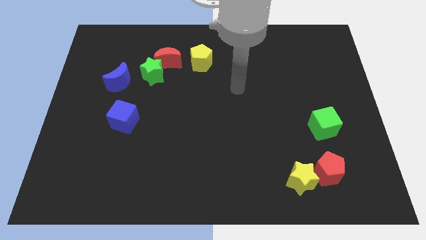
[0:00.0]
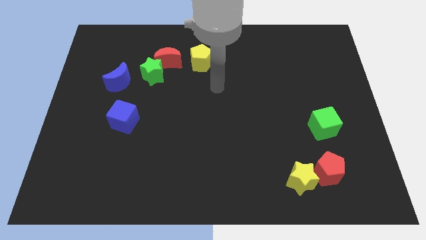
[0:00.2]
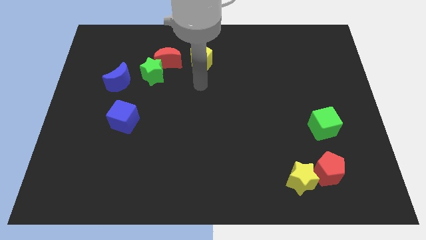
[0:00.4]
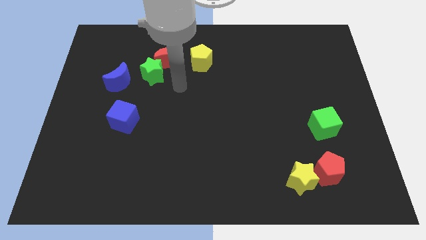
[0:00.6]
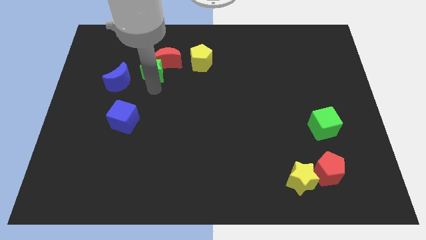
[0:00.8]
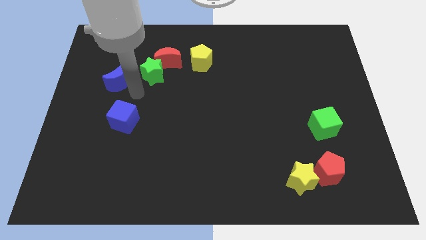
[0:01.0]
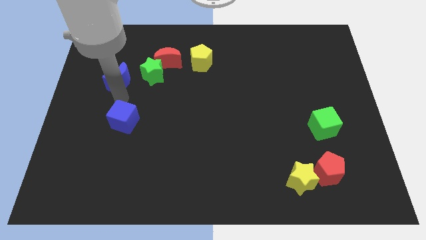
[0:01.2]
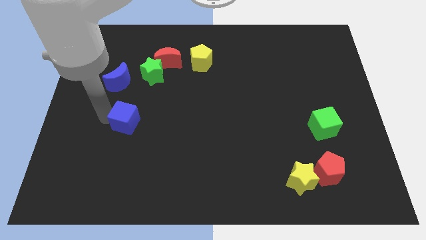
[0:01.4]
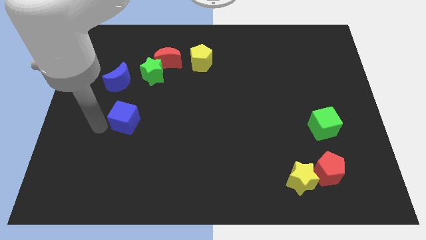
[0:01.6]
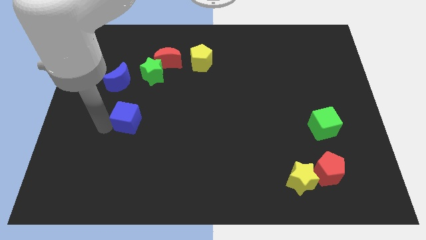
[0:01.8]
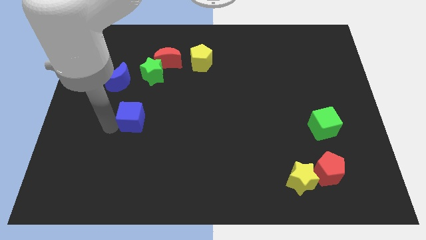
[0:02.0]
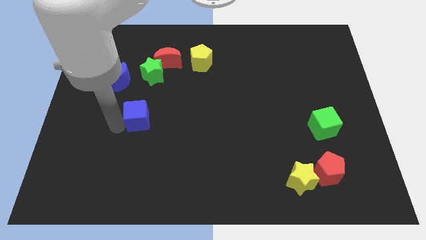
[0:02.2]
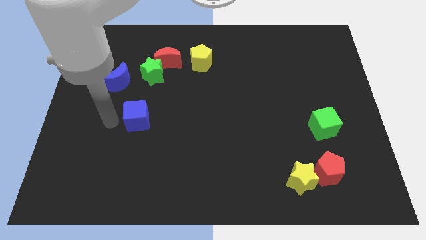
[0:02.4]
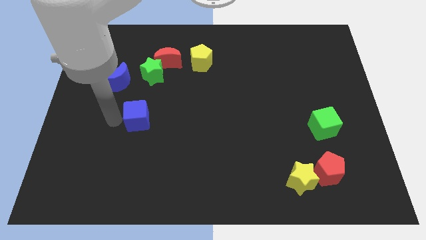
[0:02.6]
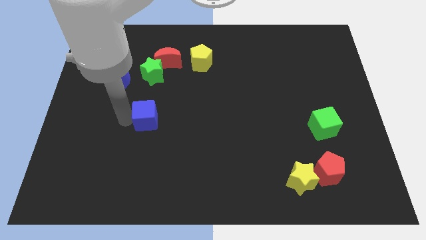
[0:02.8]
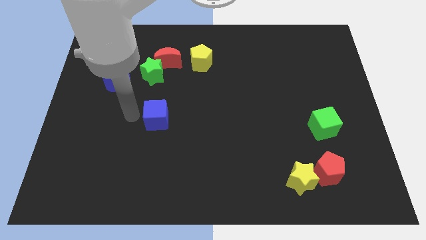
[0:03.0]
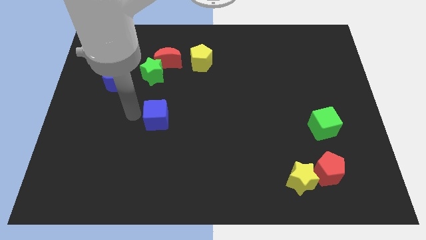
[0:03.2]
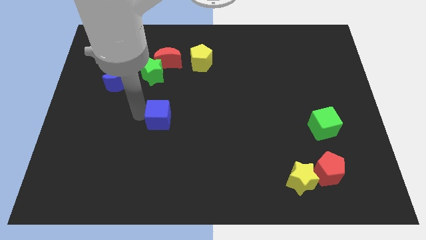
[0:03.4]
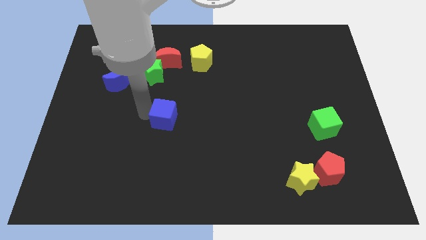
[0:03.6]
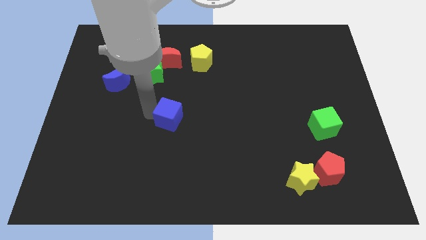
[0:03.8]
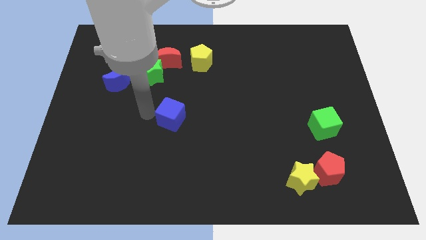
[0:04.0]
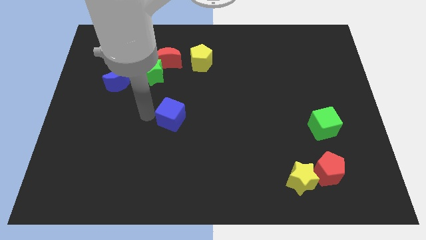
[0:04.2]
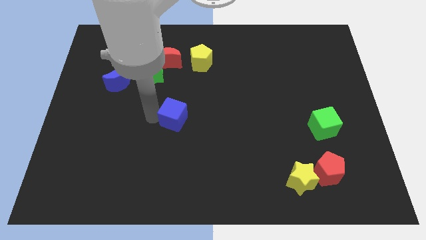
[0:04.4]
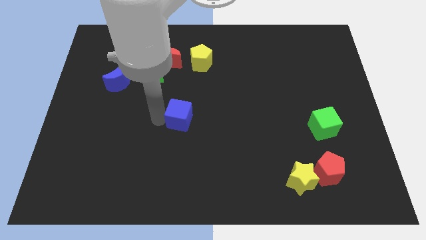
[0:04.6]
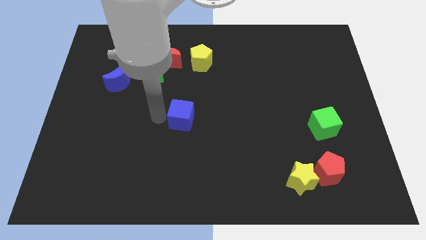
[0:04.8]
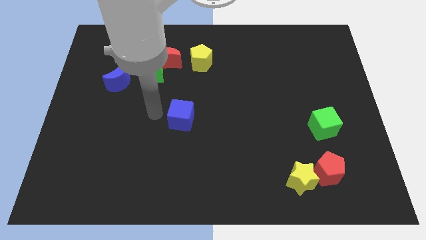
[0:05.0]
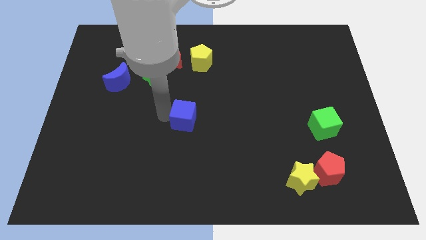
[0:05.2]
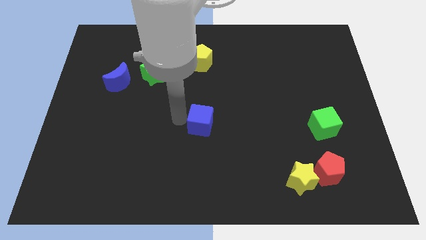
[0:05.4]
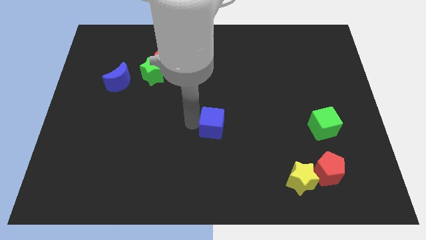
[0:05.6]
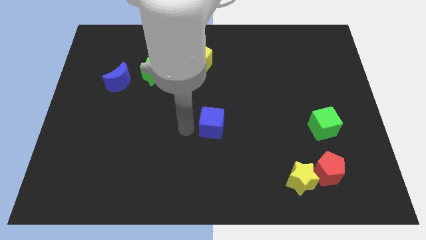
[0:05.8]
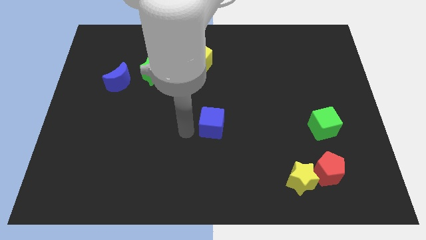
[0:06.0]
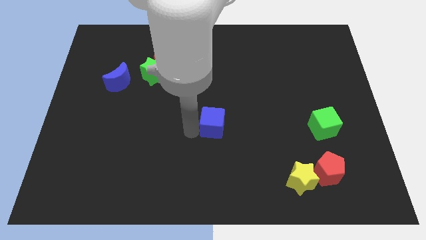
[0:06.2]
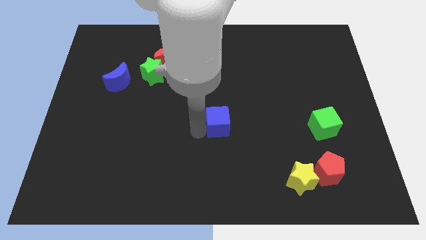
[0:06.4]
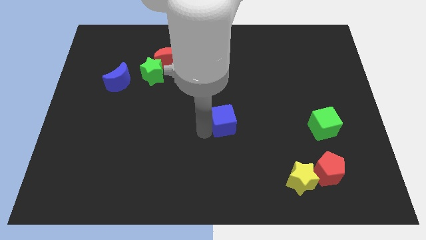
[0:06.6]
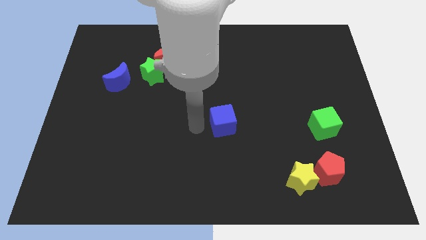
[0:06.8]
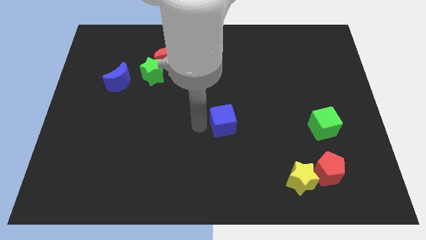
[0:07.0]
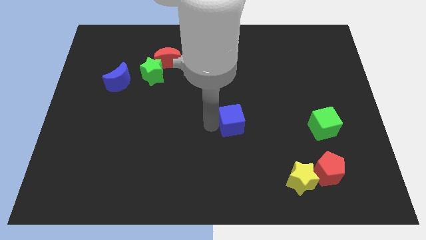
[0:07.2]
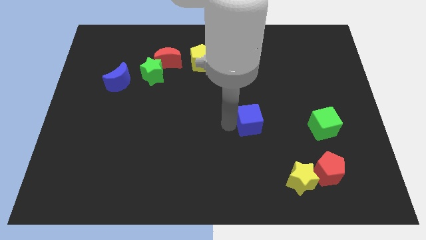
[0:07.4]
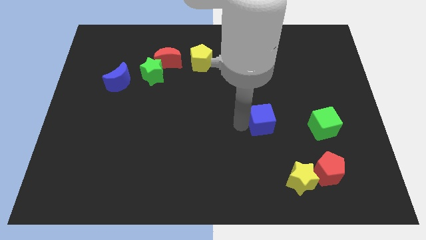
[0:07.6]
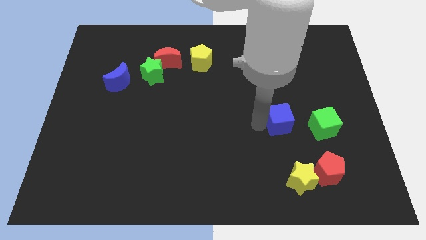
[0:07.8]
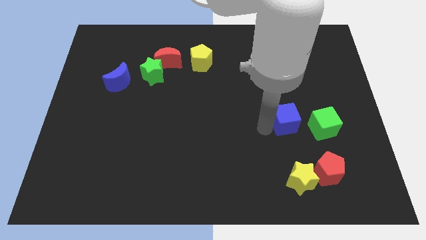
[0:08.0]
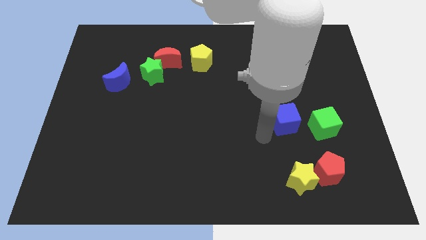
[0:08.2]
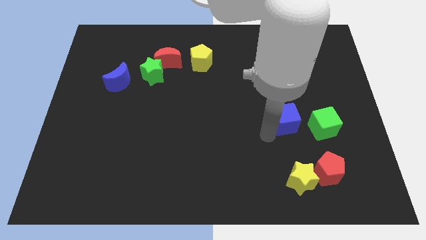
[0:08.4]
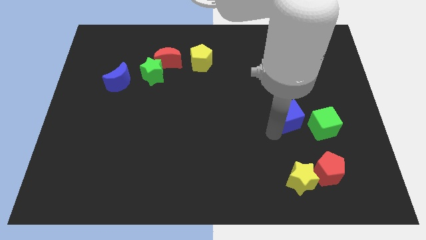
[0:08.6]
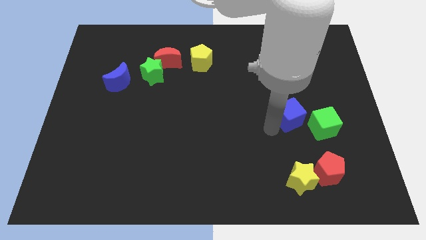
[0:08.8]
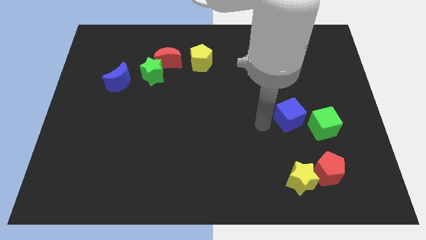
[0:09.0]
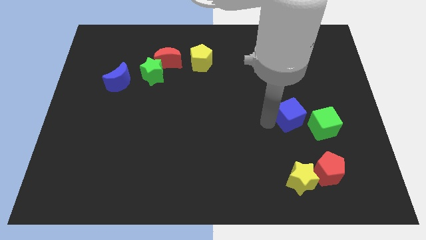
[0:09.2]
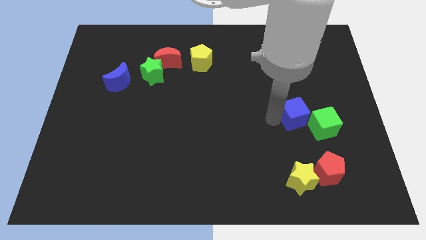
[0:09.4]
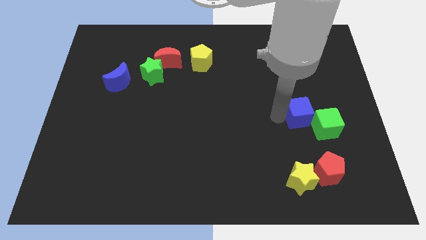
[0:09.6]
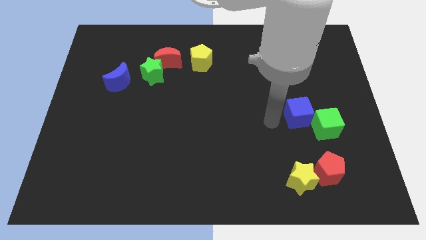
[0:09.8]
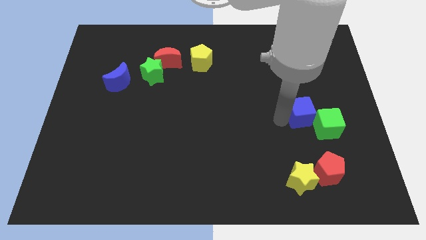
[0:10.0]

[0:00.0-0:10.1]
slide the blue cube to the top of the red pentagon

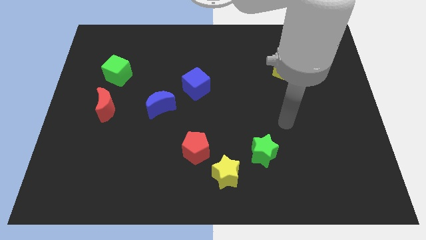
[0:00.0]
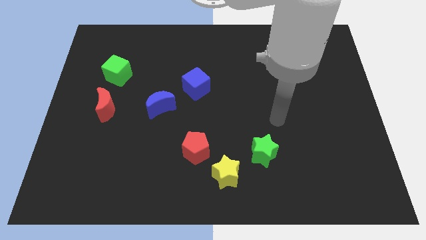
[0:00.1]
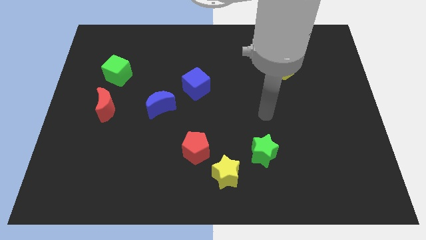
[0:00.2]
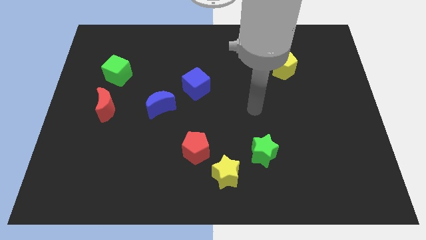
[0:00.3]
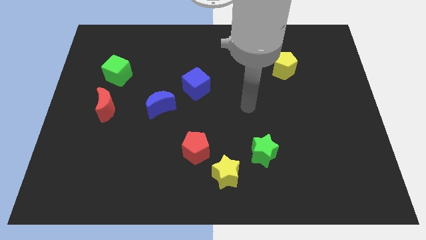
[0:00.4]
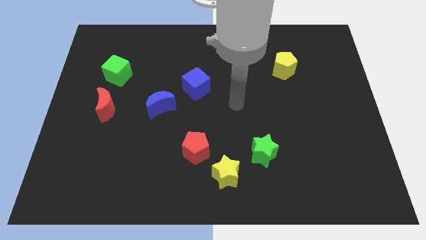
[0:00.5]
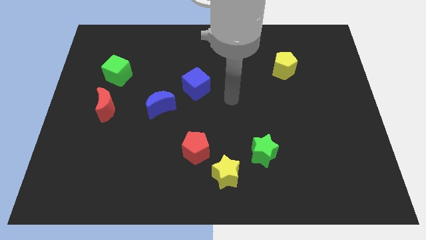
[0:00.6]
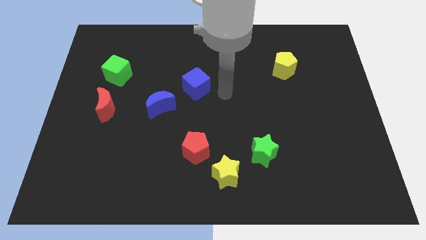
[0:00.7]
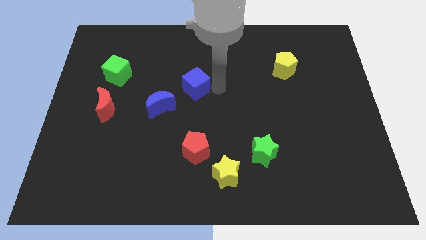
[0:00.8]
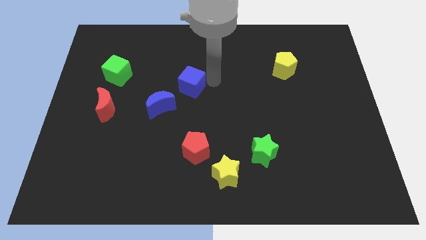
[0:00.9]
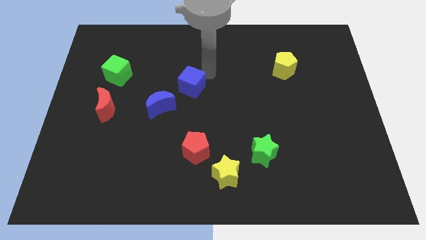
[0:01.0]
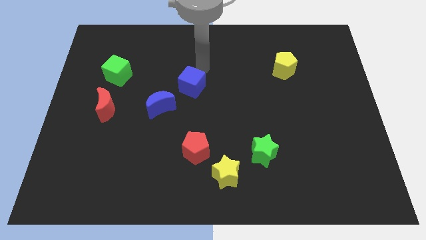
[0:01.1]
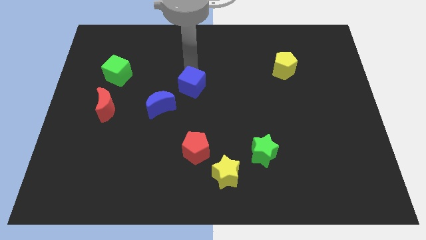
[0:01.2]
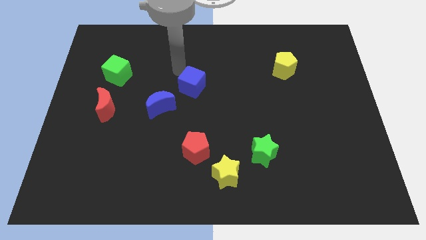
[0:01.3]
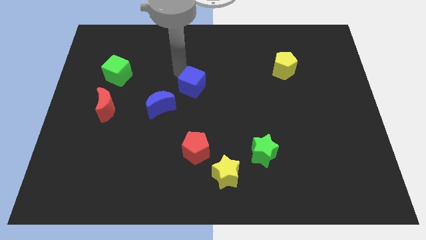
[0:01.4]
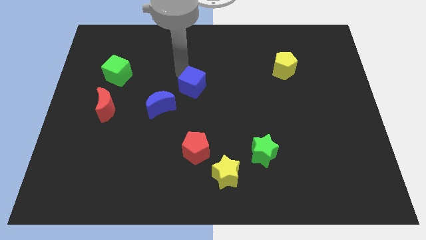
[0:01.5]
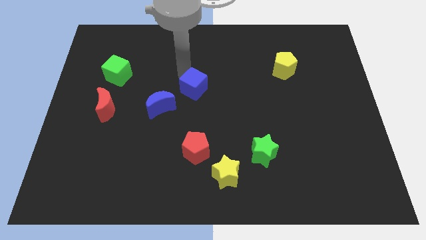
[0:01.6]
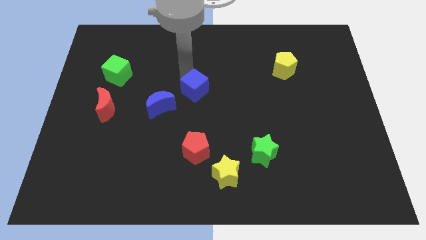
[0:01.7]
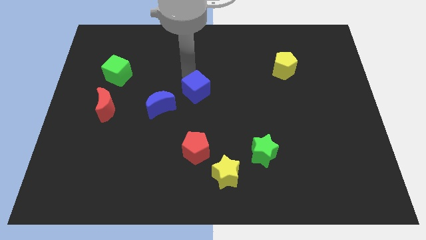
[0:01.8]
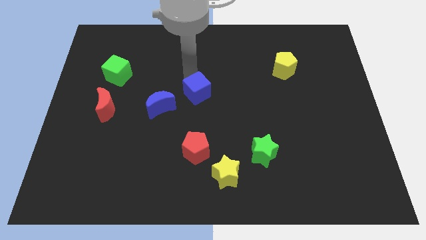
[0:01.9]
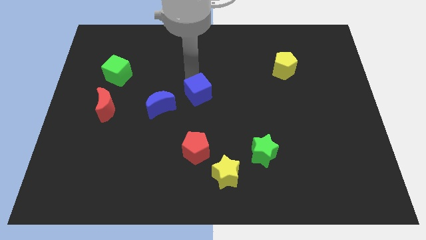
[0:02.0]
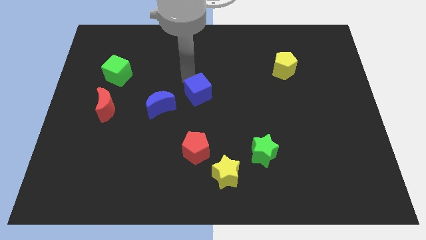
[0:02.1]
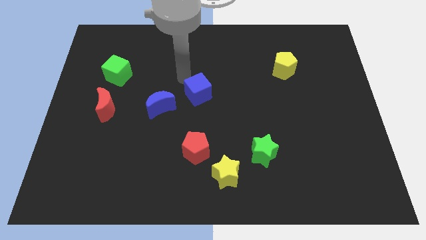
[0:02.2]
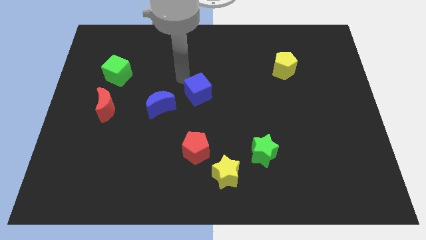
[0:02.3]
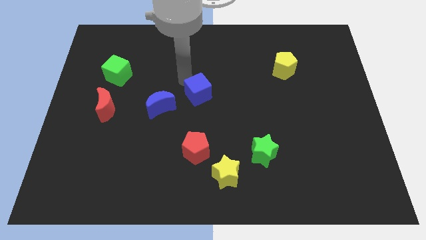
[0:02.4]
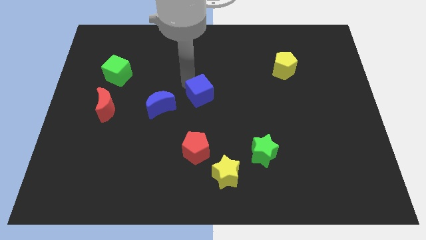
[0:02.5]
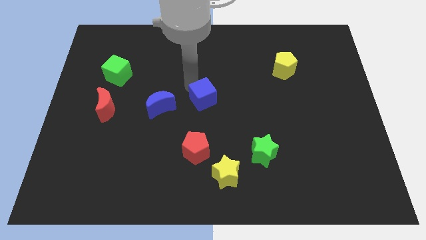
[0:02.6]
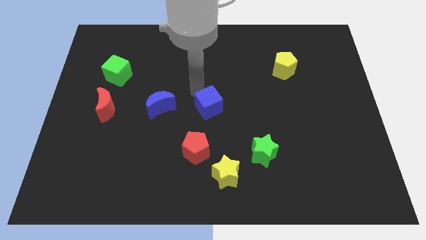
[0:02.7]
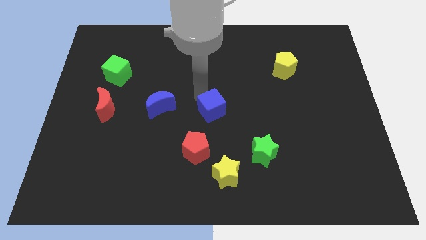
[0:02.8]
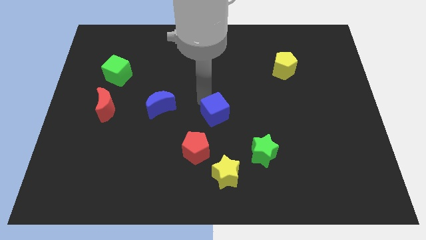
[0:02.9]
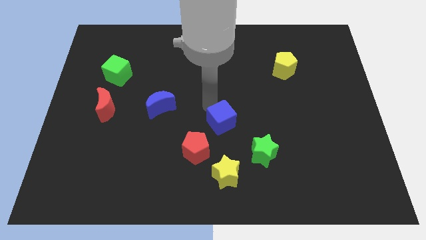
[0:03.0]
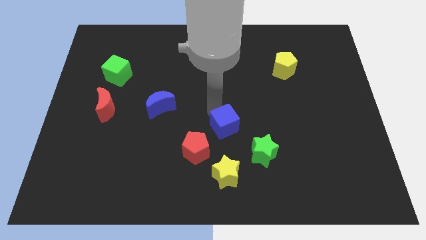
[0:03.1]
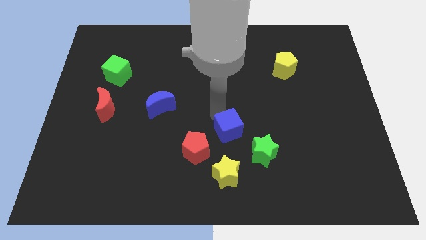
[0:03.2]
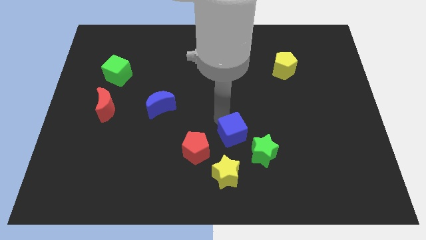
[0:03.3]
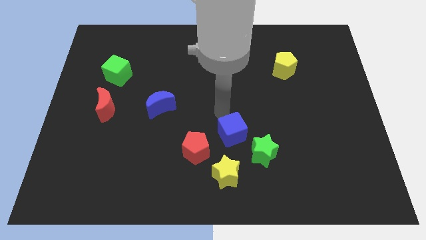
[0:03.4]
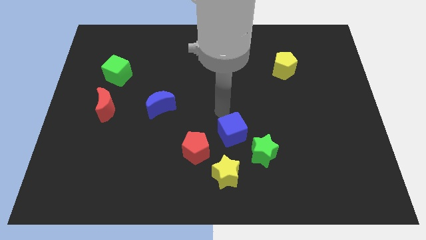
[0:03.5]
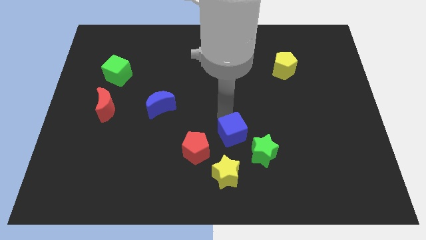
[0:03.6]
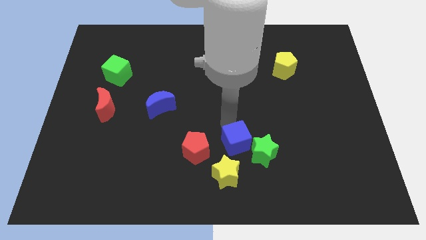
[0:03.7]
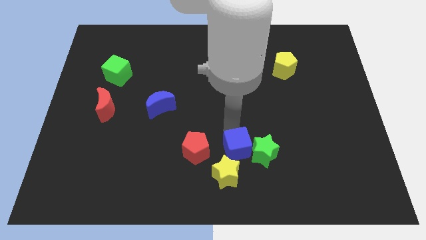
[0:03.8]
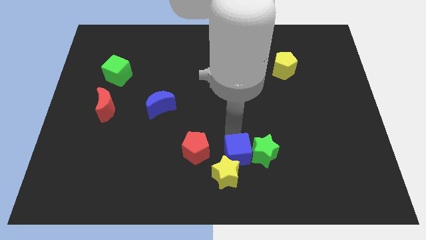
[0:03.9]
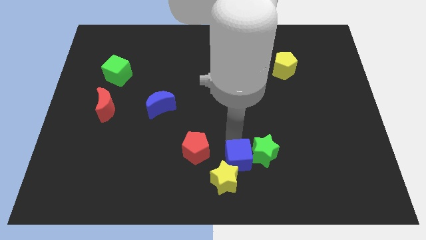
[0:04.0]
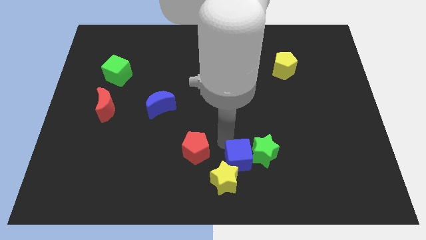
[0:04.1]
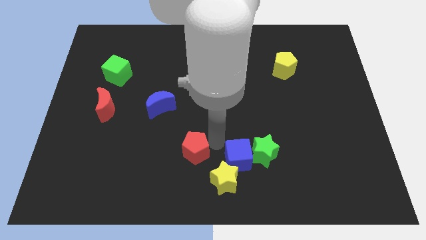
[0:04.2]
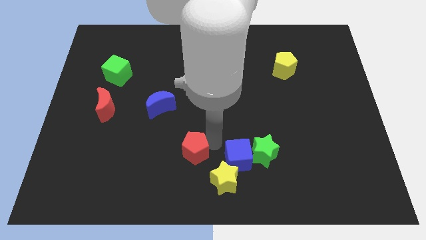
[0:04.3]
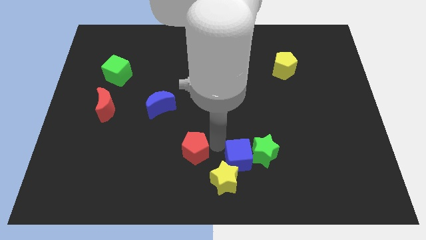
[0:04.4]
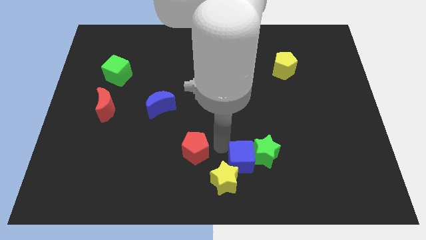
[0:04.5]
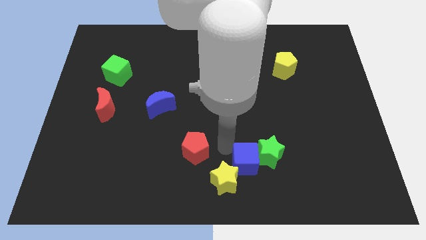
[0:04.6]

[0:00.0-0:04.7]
move the blue cube right of the yellow star
